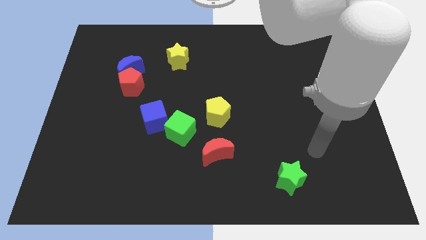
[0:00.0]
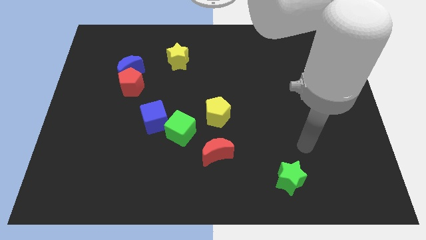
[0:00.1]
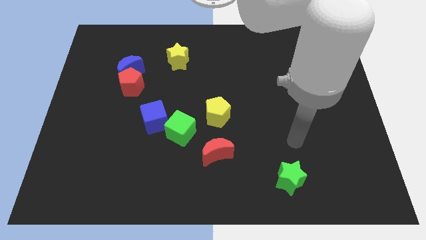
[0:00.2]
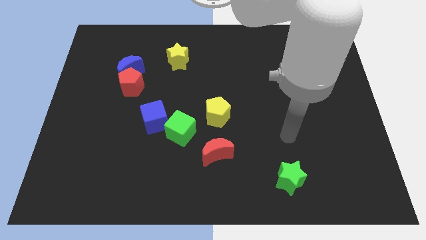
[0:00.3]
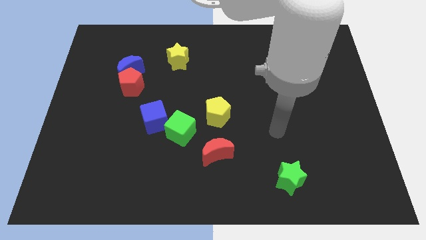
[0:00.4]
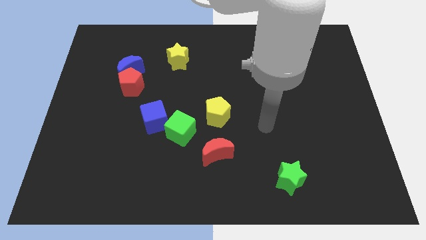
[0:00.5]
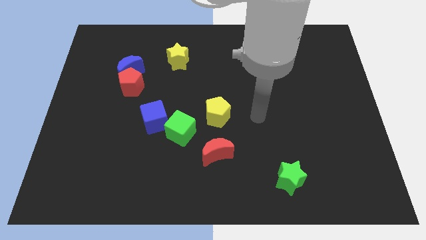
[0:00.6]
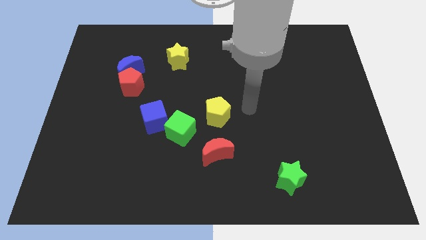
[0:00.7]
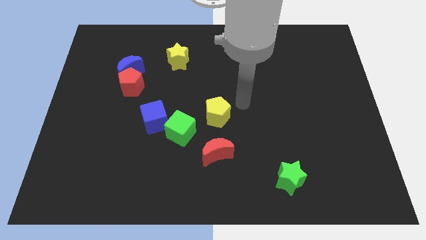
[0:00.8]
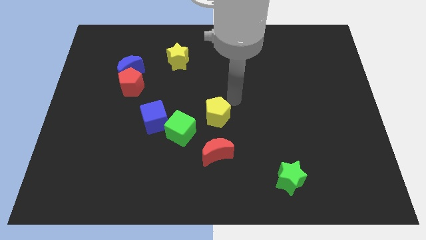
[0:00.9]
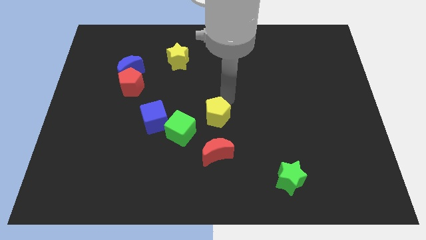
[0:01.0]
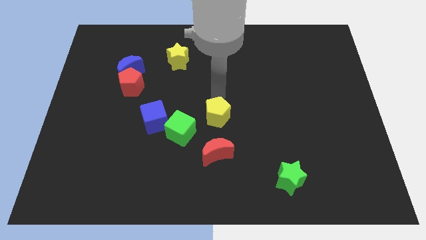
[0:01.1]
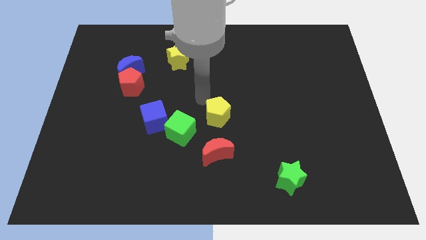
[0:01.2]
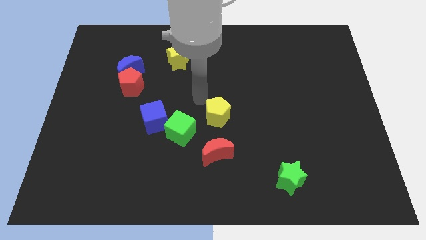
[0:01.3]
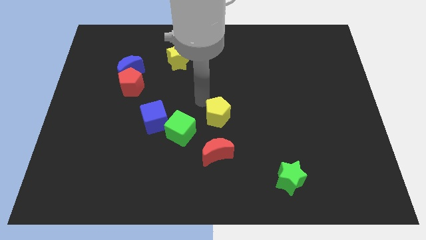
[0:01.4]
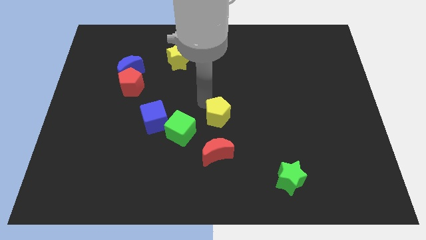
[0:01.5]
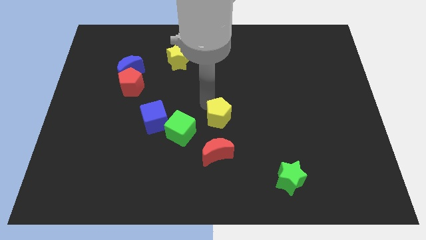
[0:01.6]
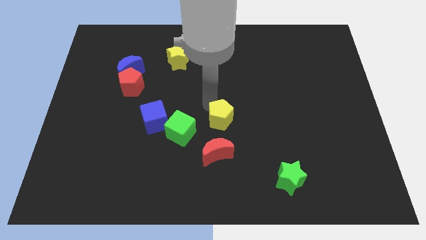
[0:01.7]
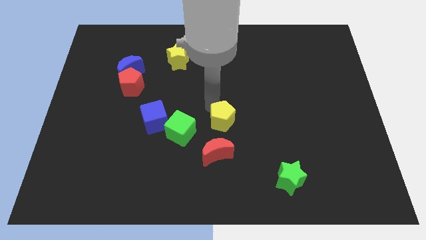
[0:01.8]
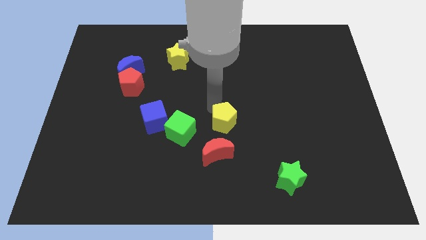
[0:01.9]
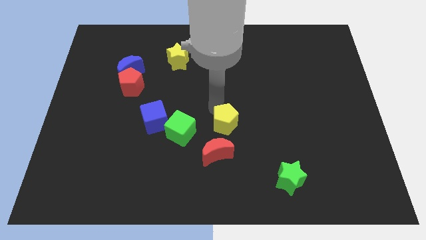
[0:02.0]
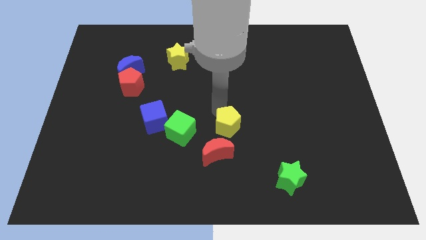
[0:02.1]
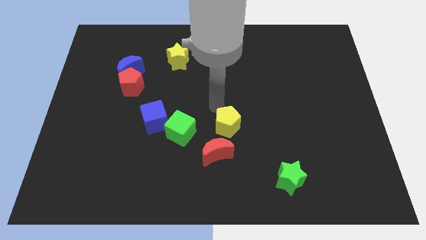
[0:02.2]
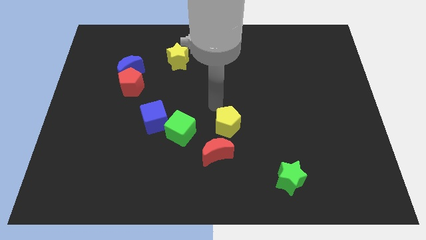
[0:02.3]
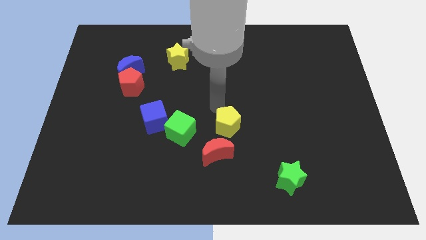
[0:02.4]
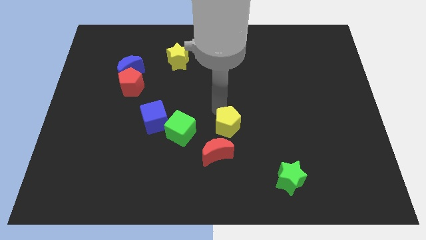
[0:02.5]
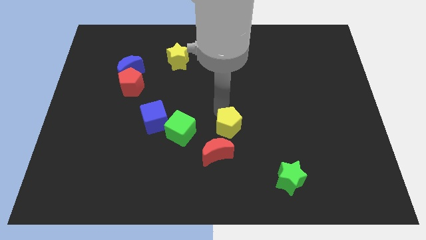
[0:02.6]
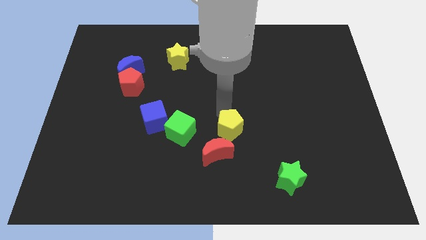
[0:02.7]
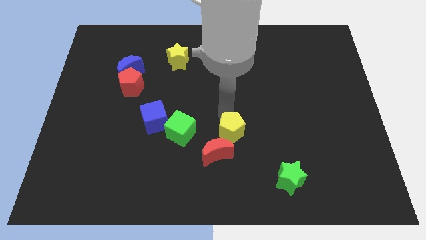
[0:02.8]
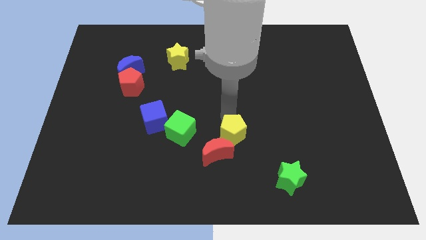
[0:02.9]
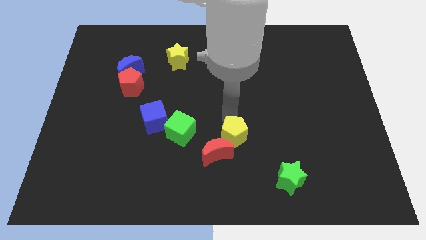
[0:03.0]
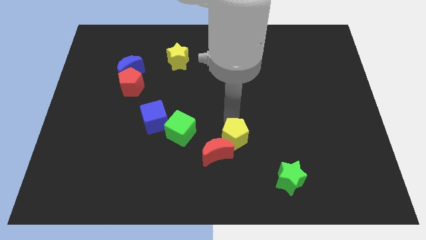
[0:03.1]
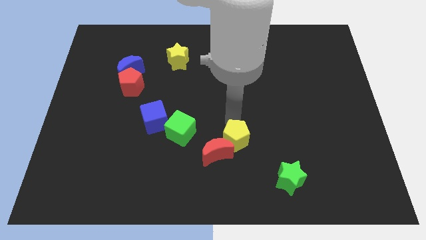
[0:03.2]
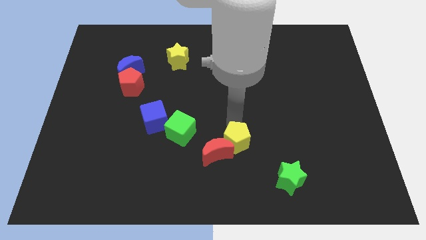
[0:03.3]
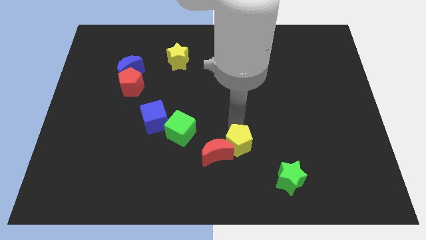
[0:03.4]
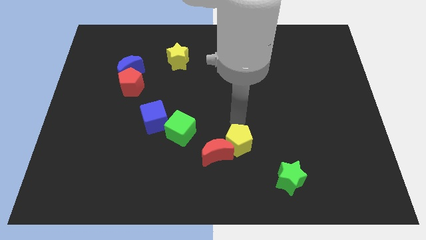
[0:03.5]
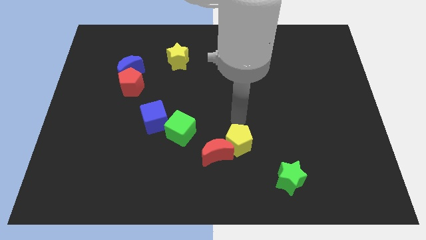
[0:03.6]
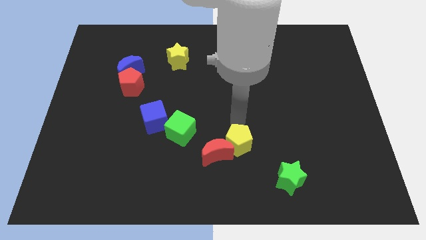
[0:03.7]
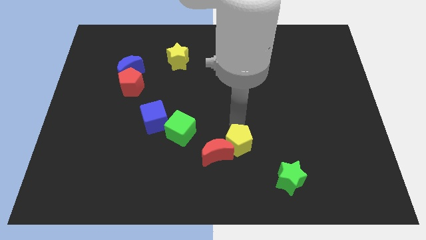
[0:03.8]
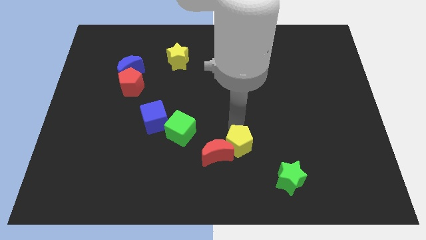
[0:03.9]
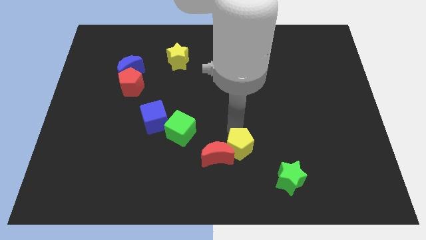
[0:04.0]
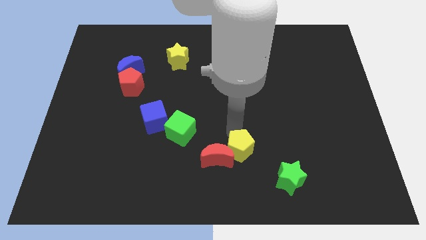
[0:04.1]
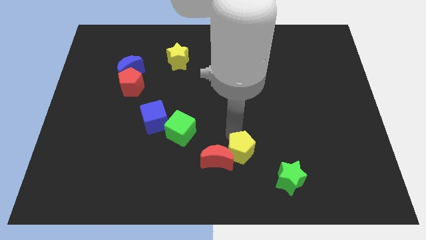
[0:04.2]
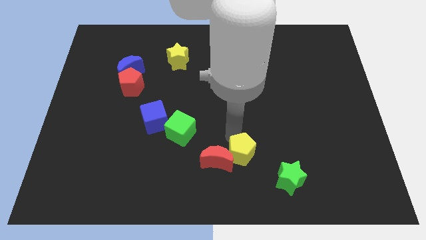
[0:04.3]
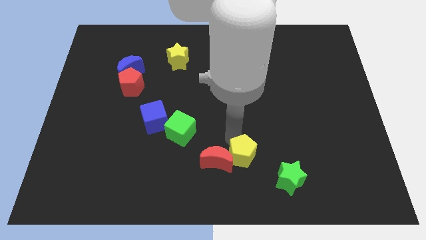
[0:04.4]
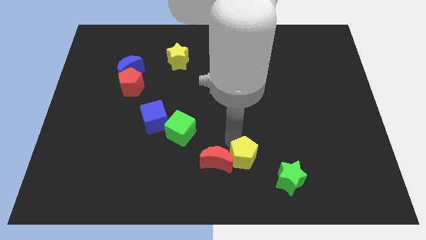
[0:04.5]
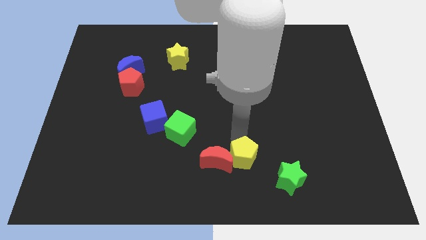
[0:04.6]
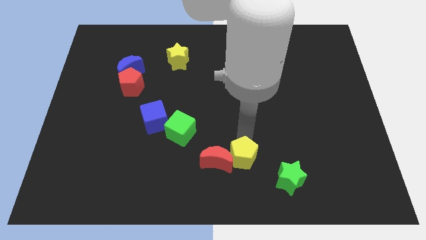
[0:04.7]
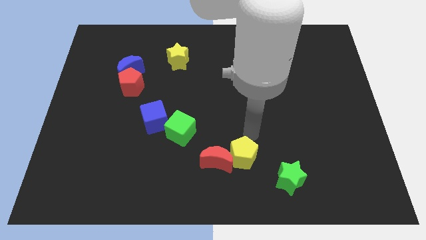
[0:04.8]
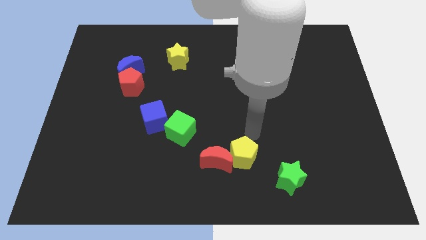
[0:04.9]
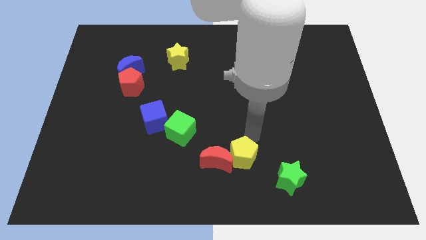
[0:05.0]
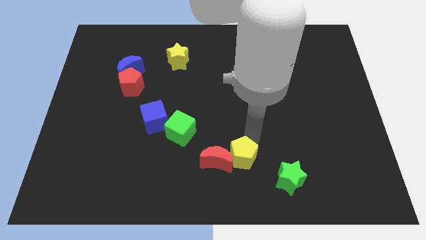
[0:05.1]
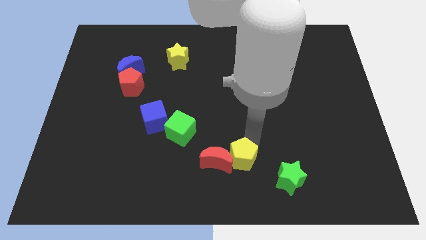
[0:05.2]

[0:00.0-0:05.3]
put the yellow pentagon to the bottom

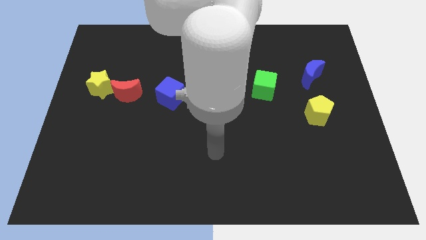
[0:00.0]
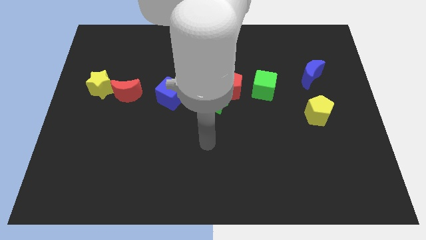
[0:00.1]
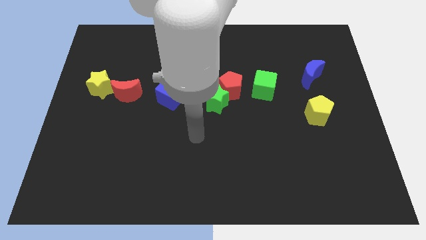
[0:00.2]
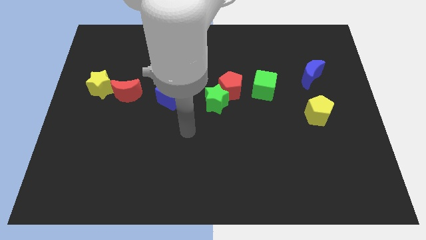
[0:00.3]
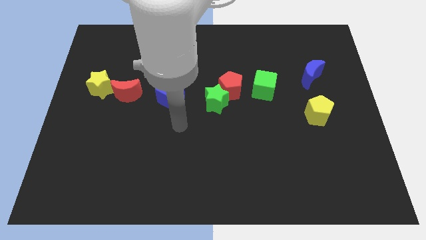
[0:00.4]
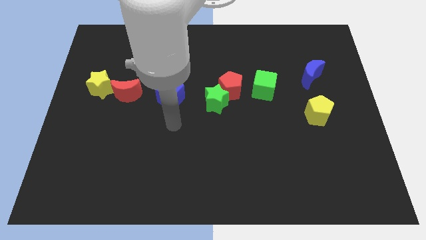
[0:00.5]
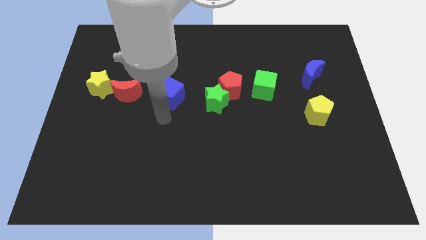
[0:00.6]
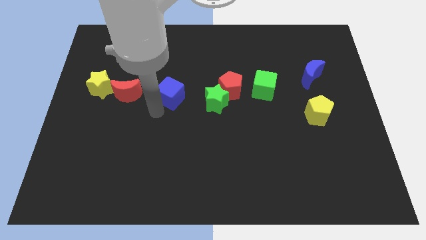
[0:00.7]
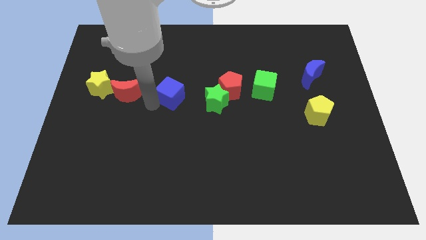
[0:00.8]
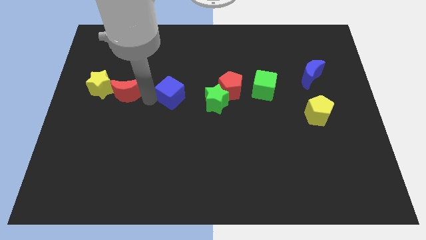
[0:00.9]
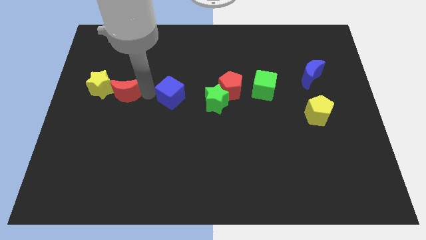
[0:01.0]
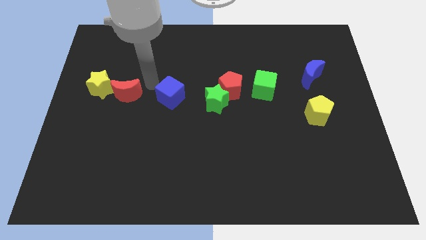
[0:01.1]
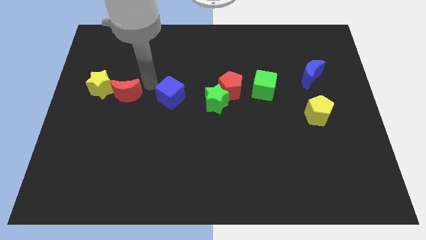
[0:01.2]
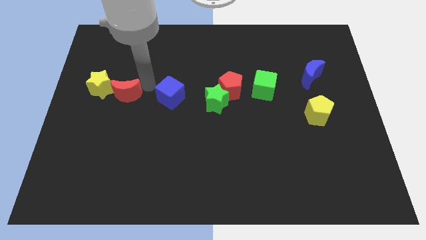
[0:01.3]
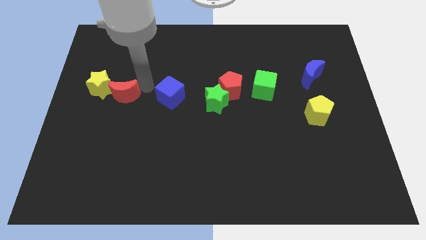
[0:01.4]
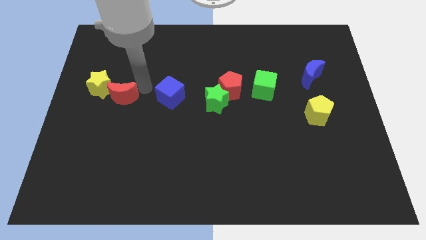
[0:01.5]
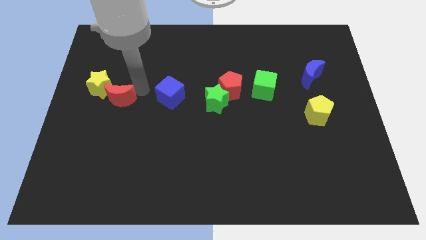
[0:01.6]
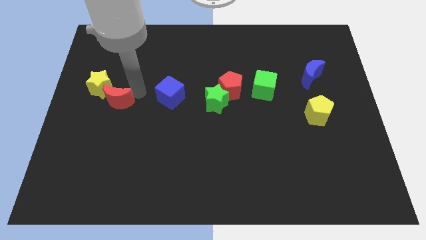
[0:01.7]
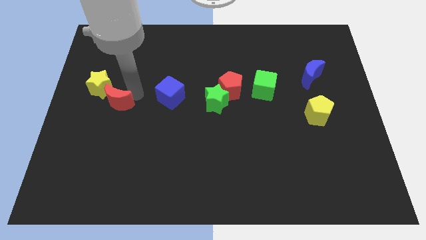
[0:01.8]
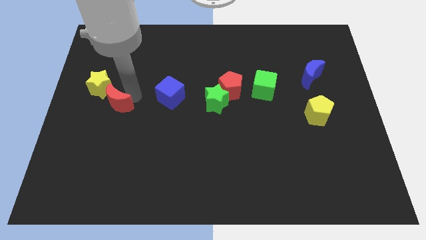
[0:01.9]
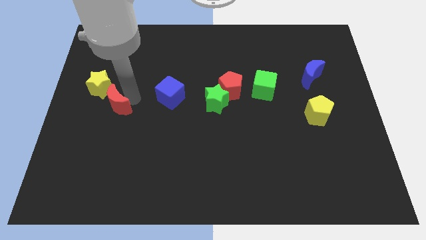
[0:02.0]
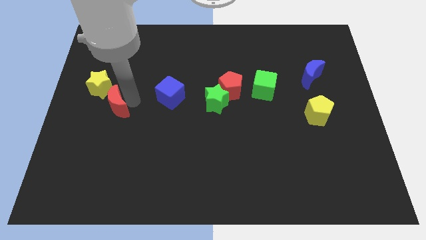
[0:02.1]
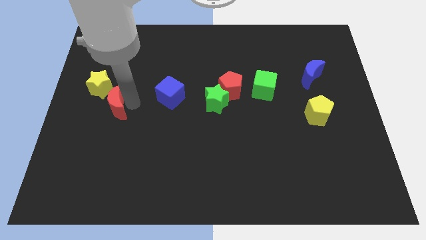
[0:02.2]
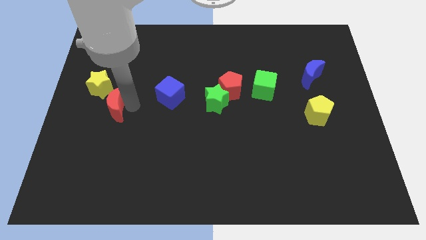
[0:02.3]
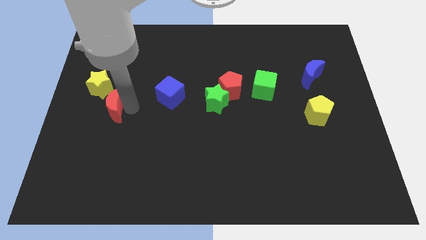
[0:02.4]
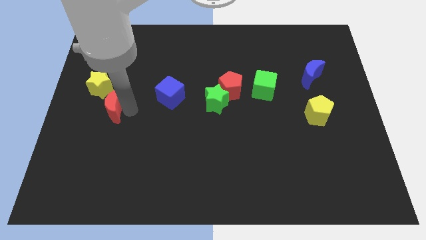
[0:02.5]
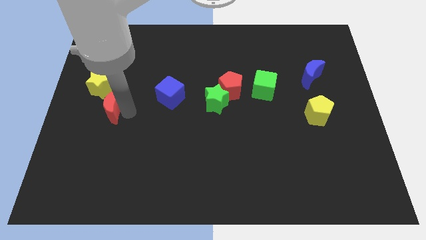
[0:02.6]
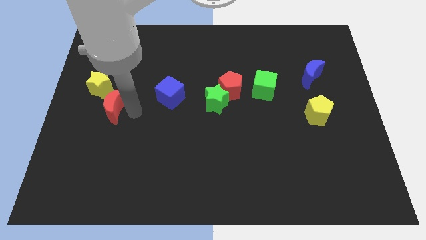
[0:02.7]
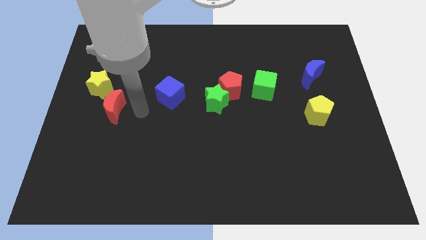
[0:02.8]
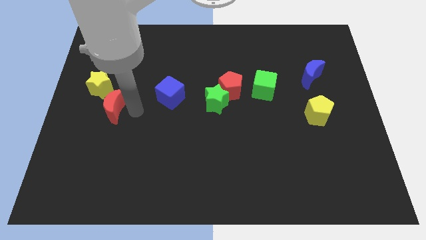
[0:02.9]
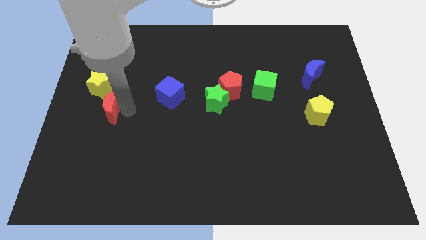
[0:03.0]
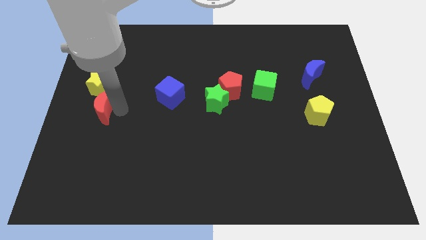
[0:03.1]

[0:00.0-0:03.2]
push the red moon to the left side of the board
